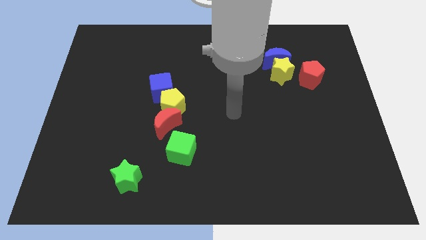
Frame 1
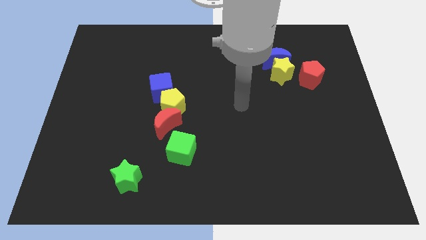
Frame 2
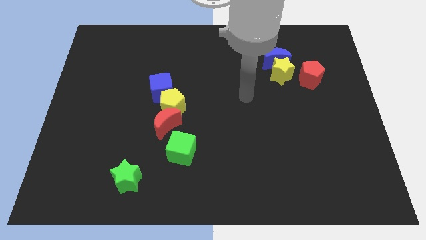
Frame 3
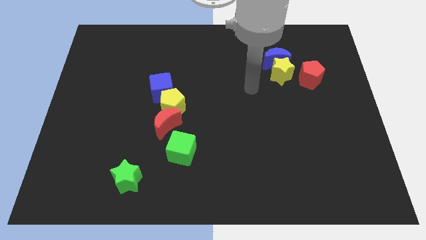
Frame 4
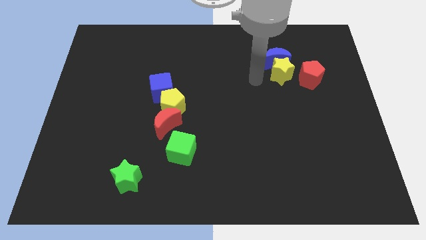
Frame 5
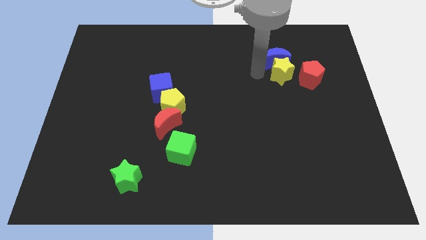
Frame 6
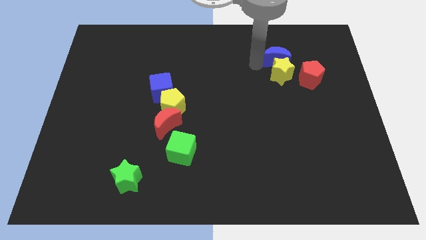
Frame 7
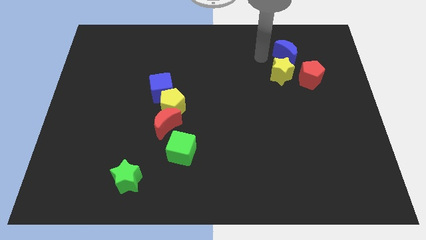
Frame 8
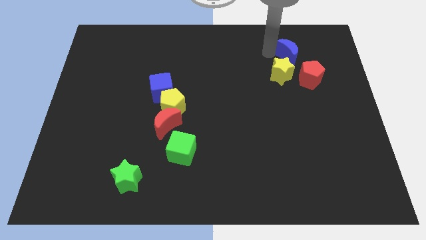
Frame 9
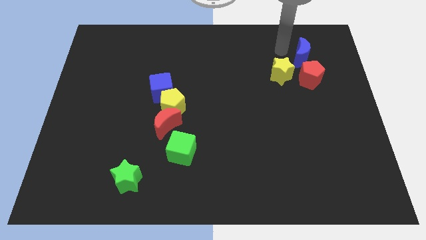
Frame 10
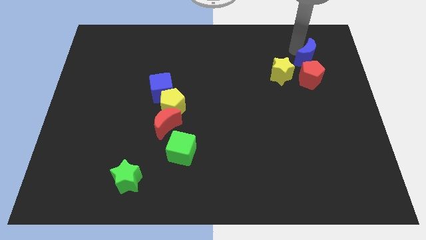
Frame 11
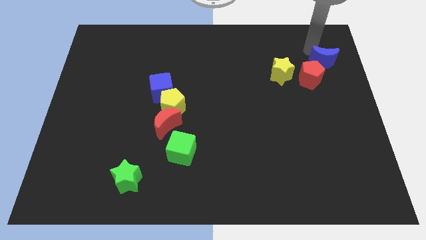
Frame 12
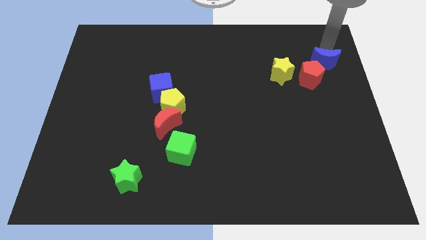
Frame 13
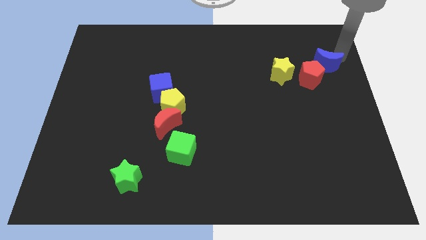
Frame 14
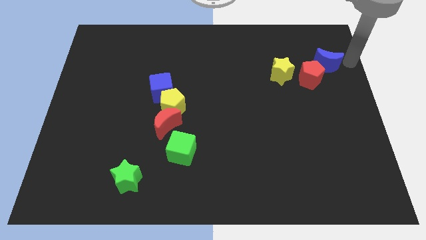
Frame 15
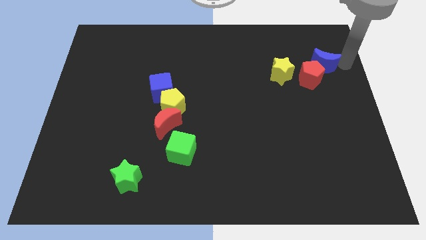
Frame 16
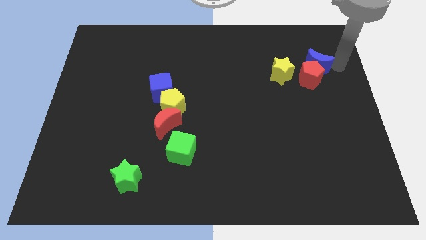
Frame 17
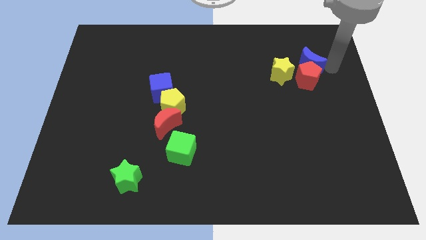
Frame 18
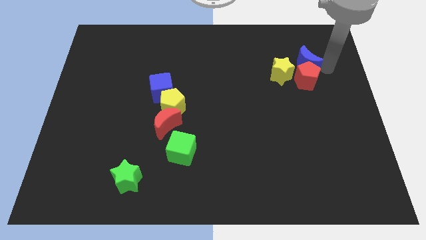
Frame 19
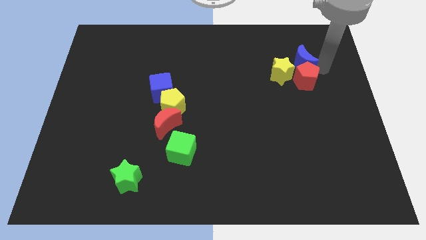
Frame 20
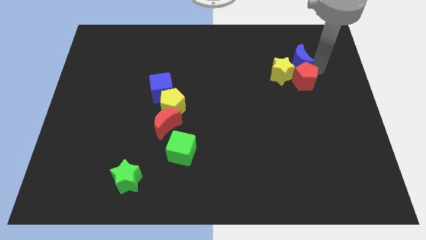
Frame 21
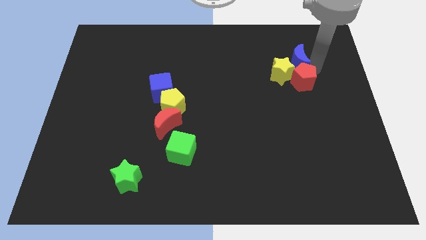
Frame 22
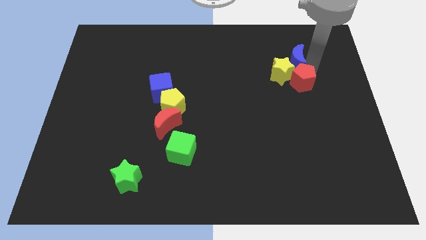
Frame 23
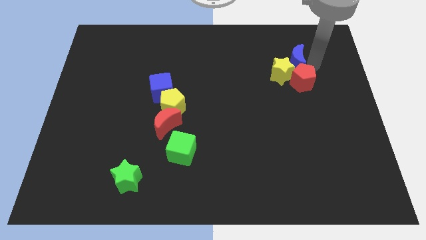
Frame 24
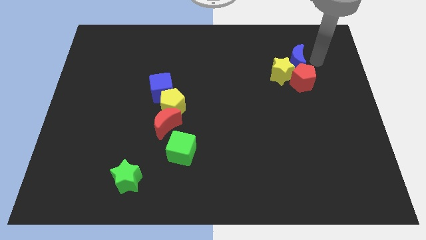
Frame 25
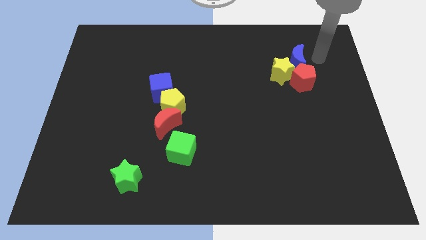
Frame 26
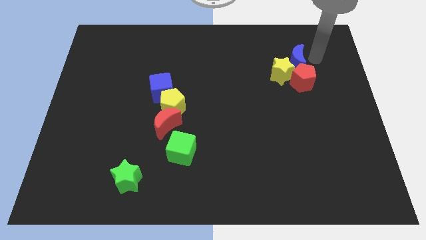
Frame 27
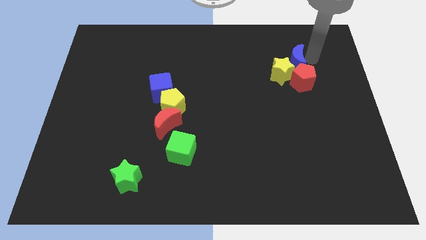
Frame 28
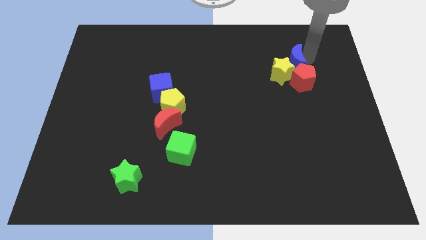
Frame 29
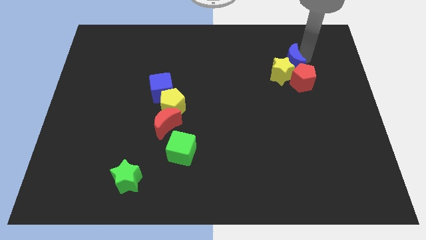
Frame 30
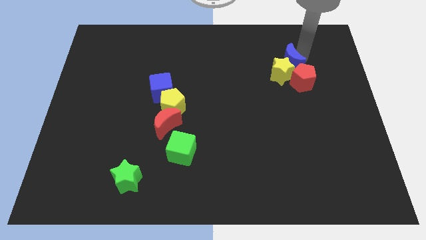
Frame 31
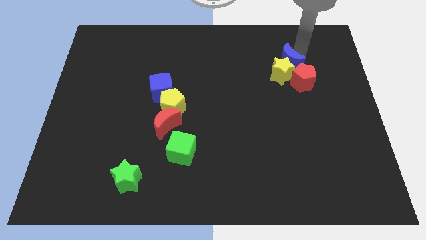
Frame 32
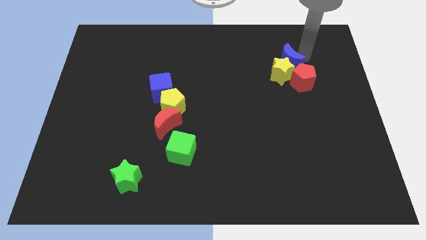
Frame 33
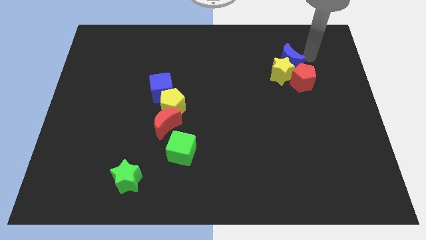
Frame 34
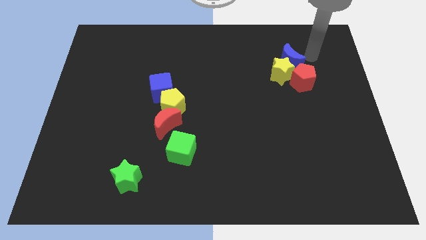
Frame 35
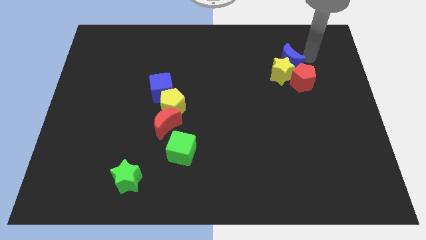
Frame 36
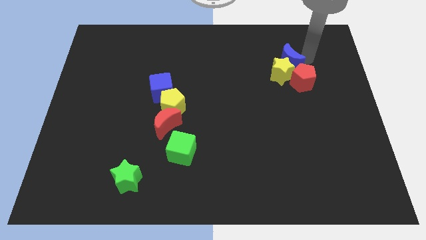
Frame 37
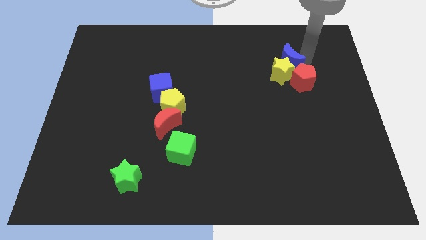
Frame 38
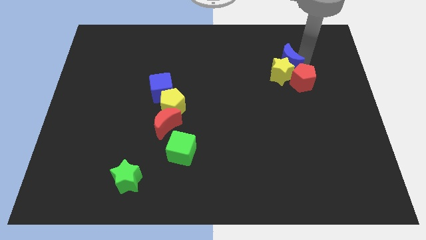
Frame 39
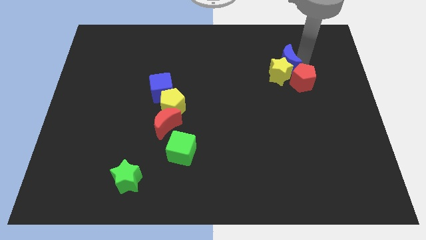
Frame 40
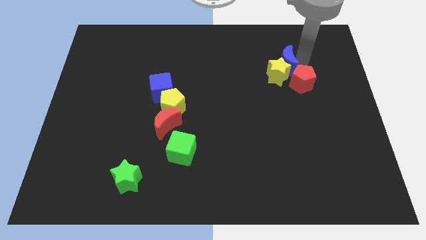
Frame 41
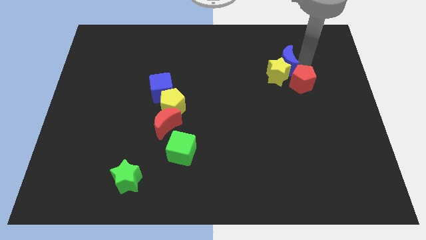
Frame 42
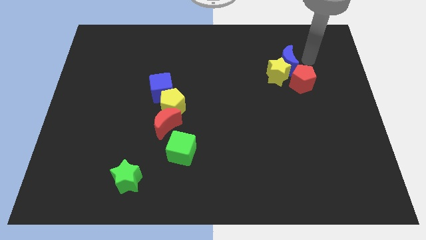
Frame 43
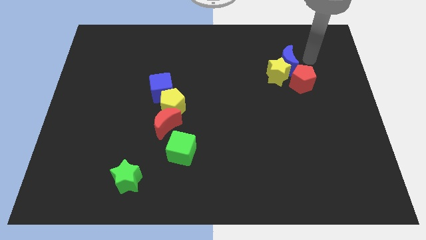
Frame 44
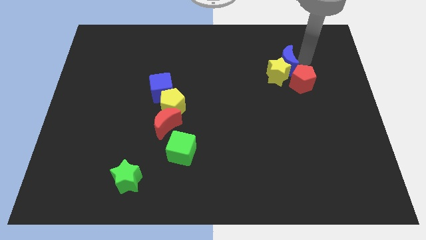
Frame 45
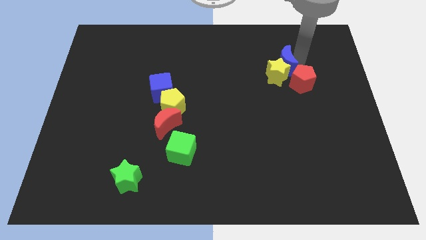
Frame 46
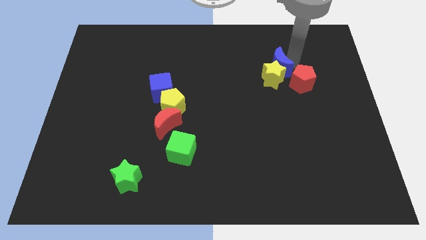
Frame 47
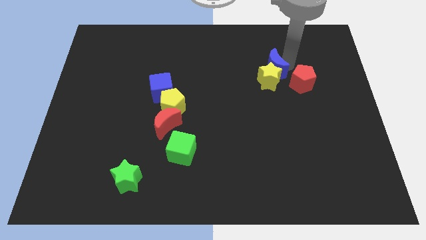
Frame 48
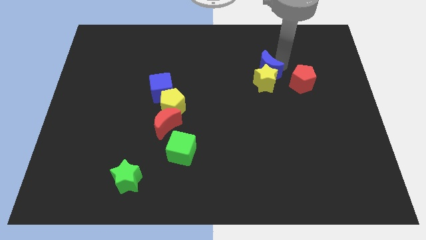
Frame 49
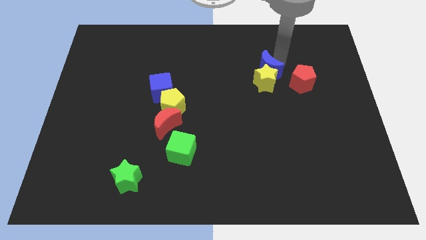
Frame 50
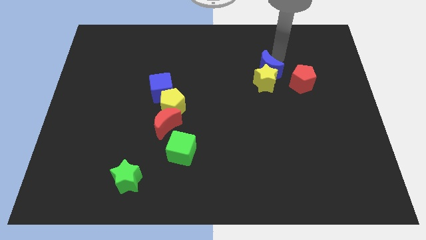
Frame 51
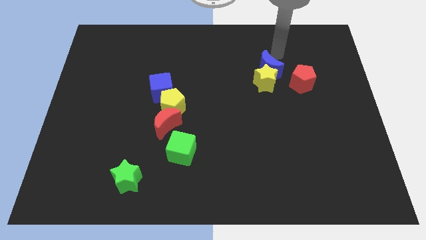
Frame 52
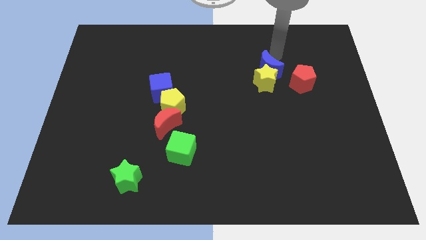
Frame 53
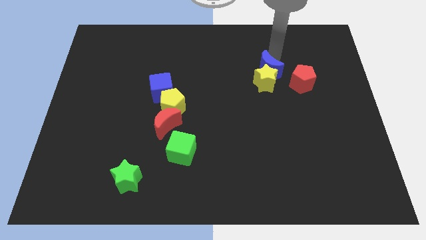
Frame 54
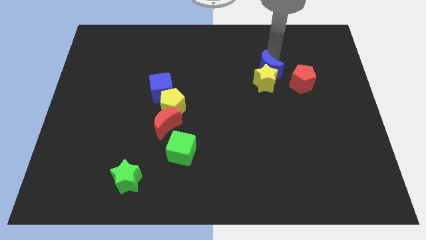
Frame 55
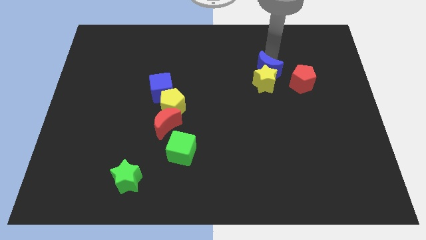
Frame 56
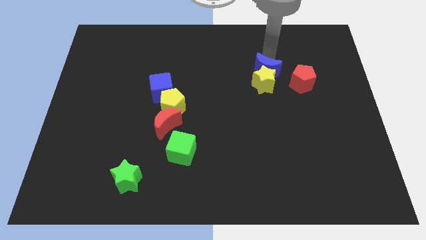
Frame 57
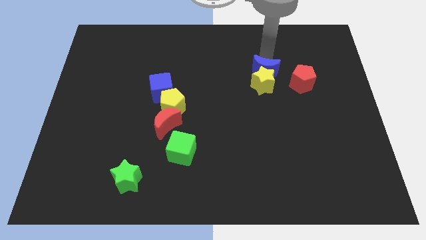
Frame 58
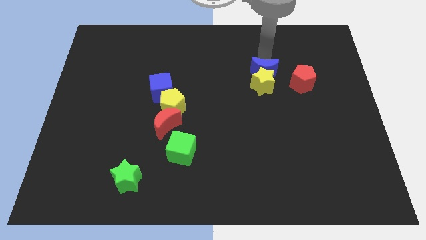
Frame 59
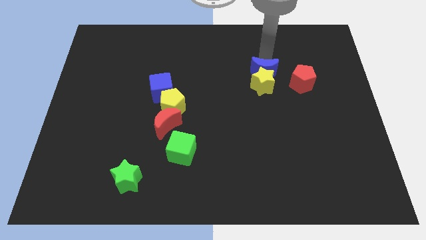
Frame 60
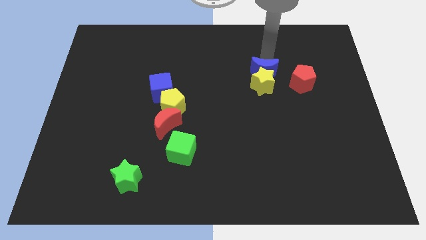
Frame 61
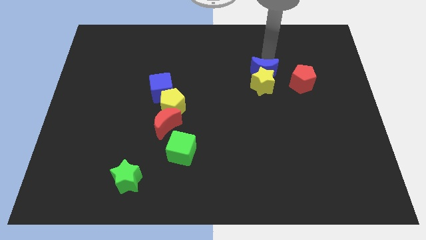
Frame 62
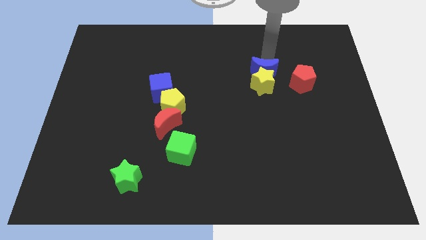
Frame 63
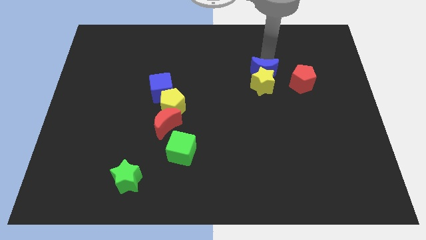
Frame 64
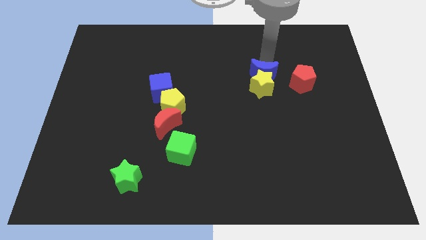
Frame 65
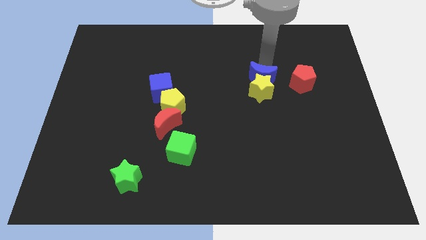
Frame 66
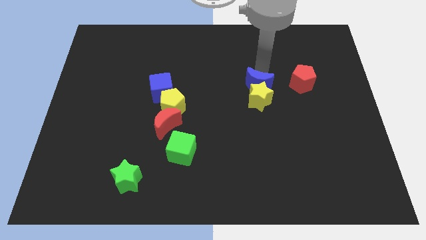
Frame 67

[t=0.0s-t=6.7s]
slide the blue moon somewhat downwards

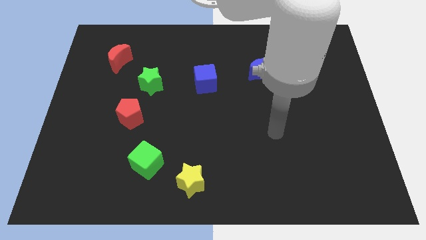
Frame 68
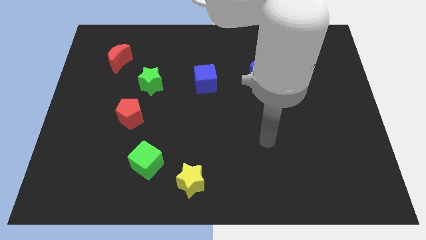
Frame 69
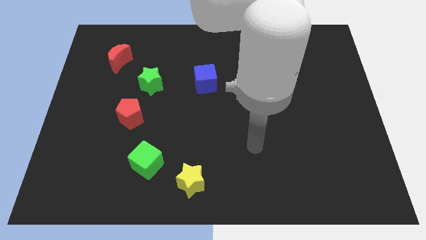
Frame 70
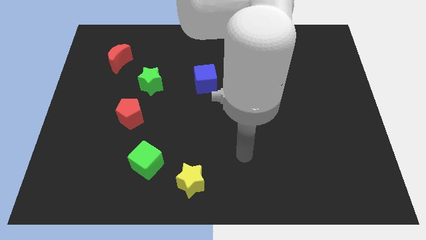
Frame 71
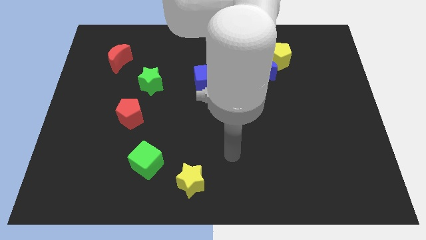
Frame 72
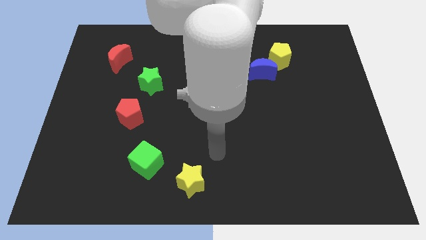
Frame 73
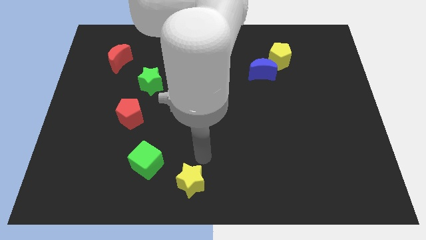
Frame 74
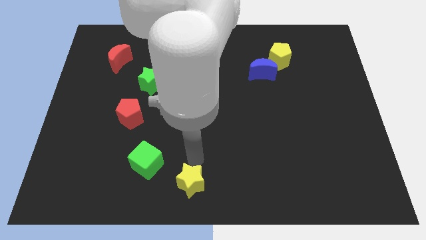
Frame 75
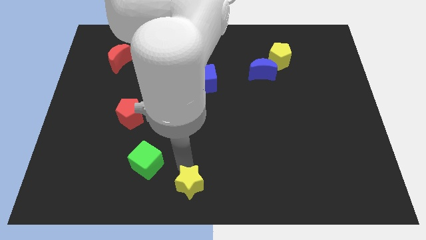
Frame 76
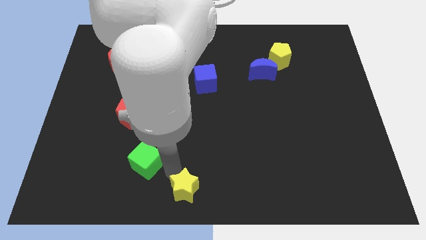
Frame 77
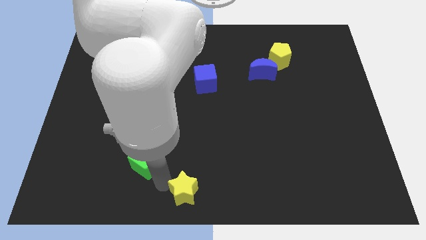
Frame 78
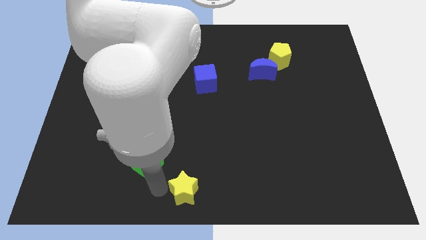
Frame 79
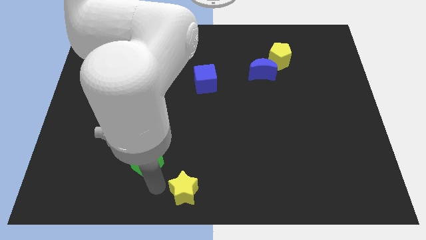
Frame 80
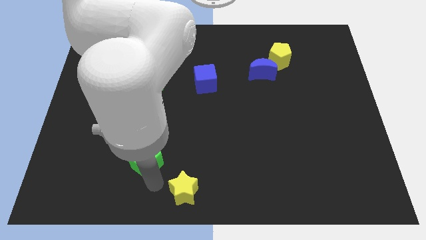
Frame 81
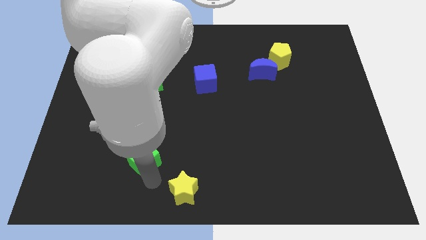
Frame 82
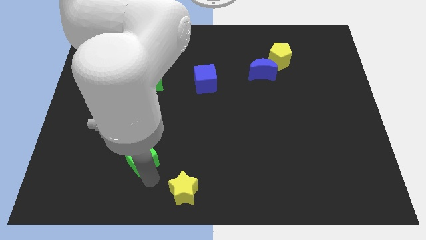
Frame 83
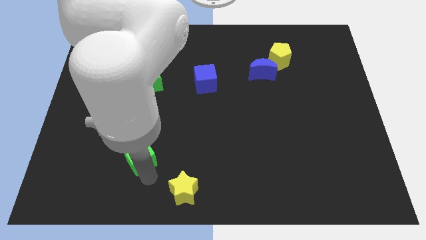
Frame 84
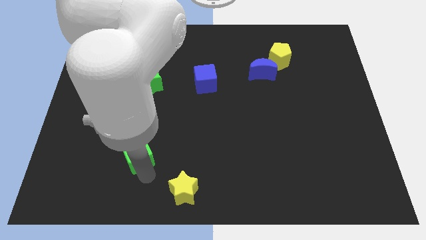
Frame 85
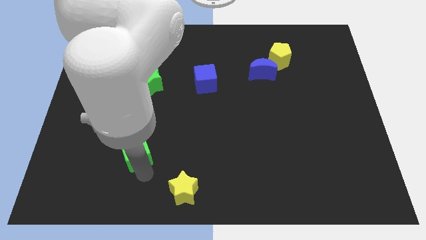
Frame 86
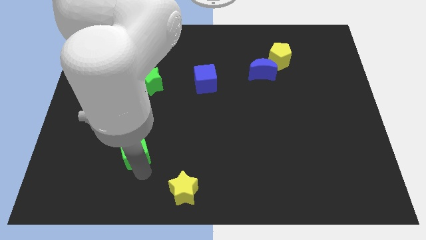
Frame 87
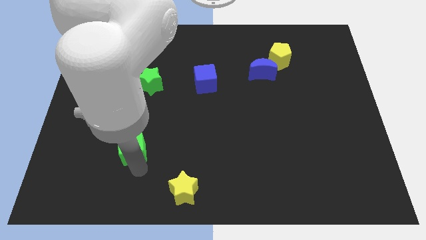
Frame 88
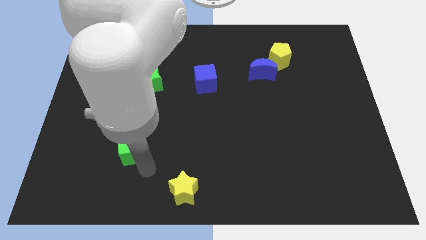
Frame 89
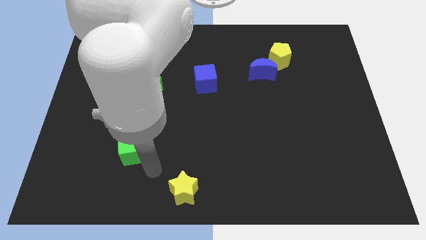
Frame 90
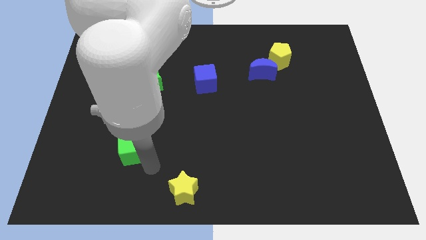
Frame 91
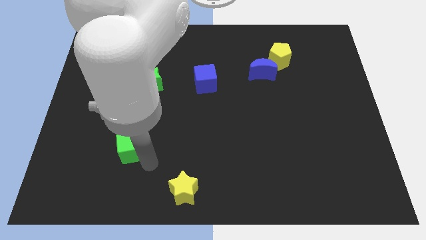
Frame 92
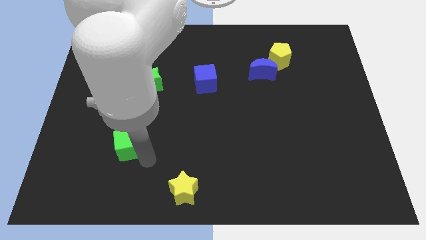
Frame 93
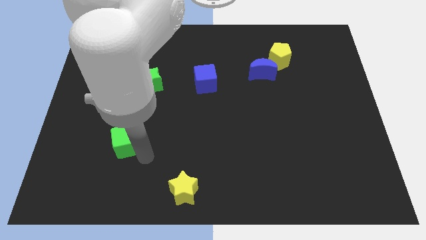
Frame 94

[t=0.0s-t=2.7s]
push the green cube diagonally up and to the left slightly
